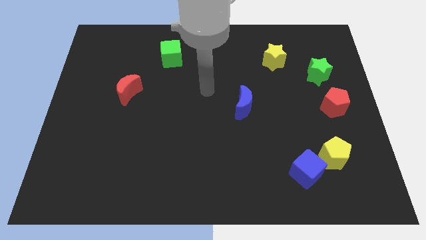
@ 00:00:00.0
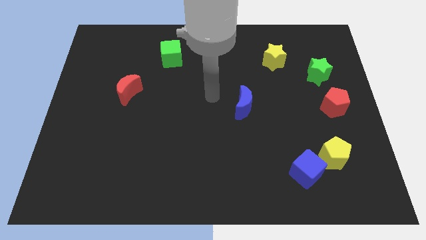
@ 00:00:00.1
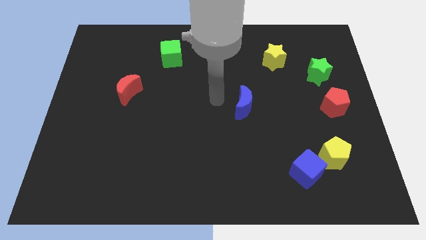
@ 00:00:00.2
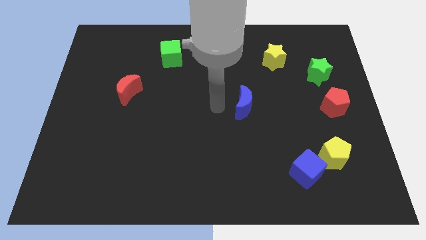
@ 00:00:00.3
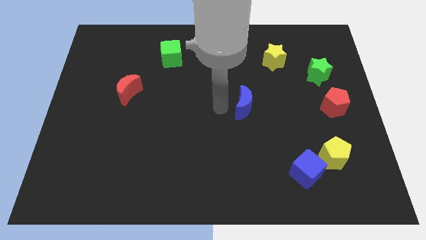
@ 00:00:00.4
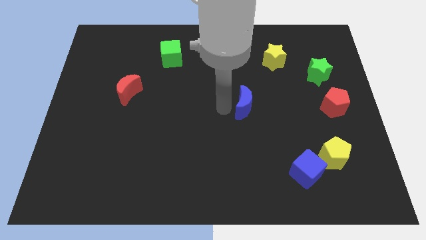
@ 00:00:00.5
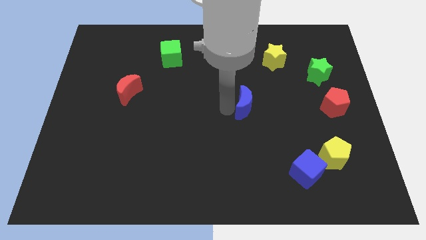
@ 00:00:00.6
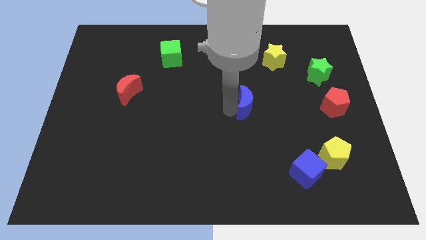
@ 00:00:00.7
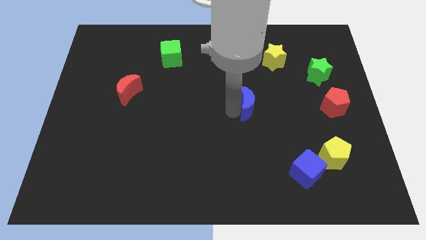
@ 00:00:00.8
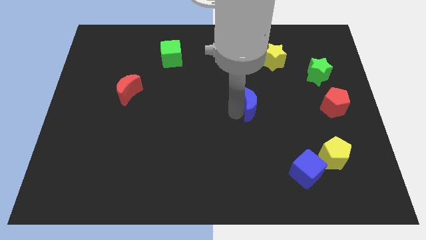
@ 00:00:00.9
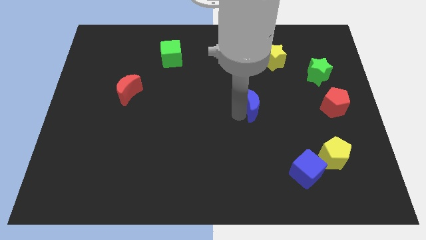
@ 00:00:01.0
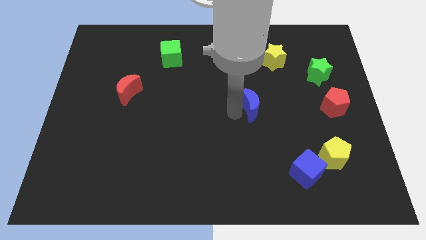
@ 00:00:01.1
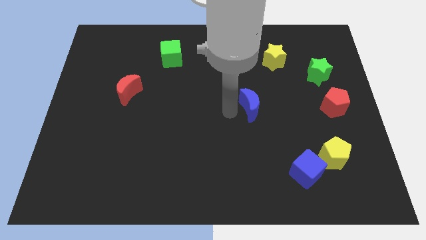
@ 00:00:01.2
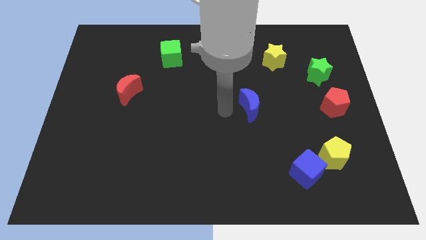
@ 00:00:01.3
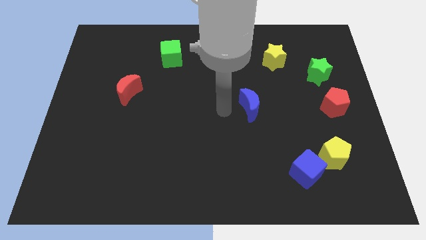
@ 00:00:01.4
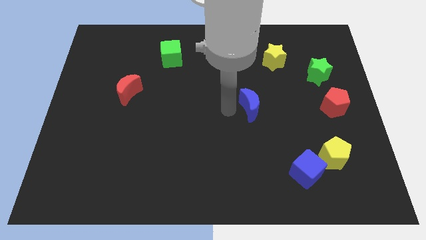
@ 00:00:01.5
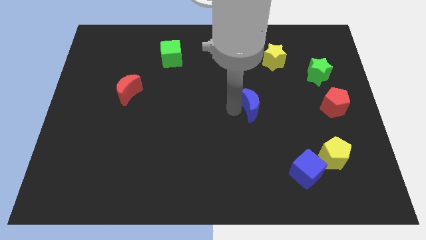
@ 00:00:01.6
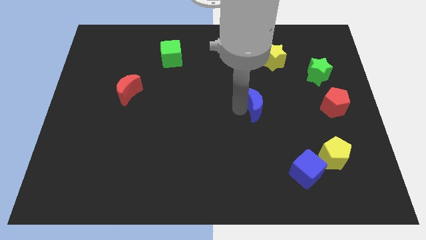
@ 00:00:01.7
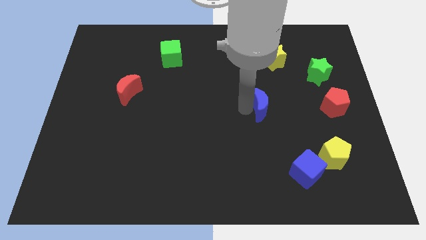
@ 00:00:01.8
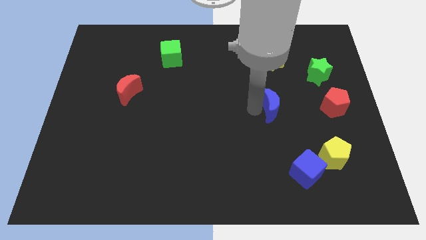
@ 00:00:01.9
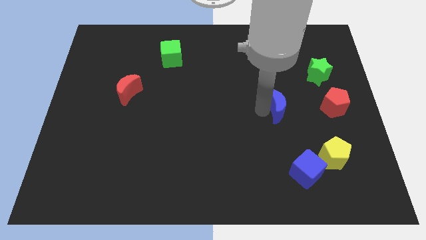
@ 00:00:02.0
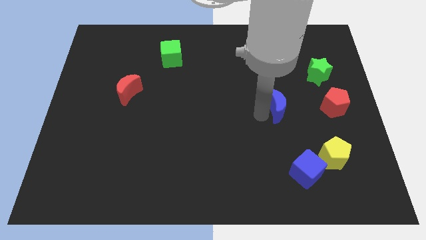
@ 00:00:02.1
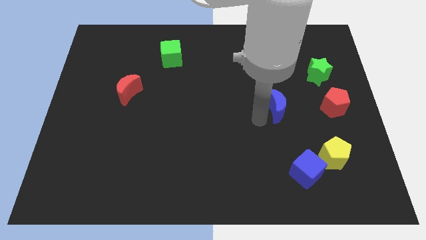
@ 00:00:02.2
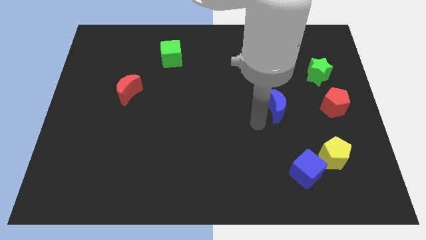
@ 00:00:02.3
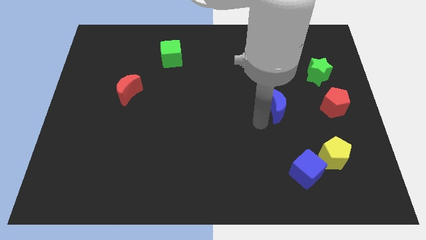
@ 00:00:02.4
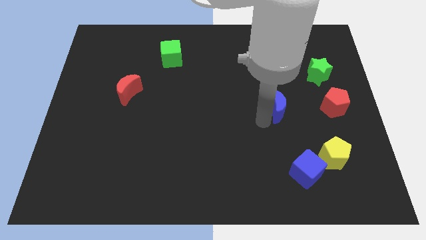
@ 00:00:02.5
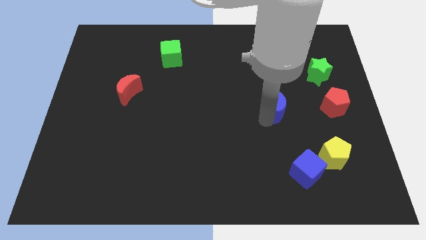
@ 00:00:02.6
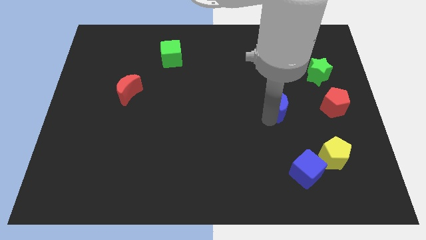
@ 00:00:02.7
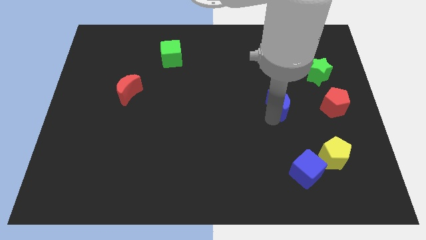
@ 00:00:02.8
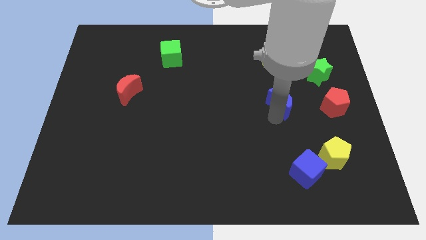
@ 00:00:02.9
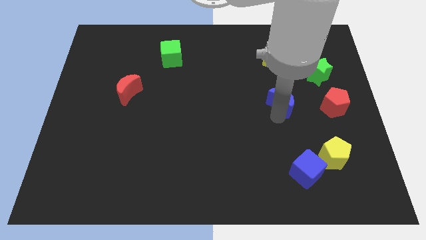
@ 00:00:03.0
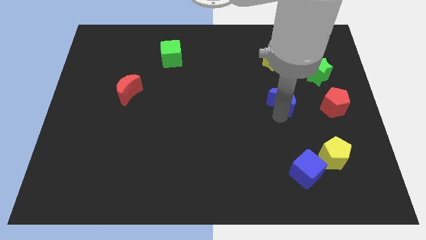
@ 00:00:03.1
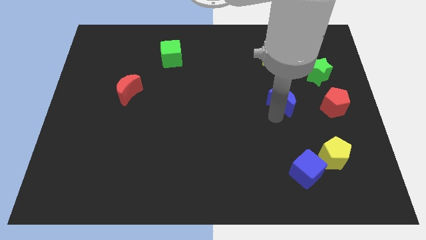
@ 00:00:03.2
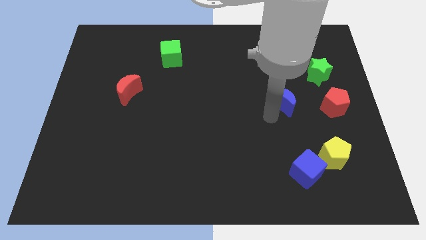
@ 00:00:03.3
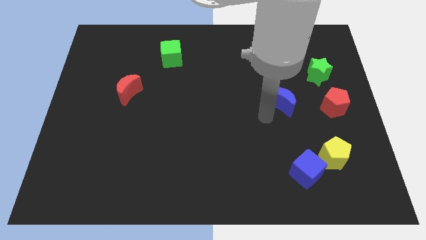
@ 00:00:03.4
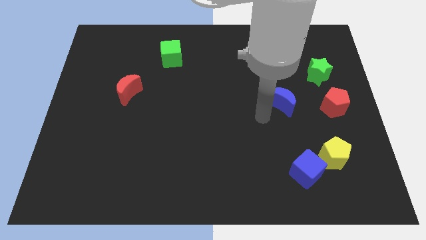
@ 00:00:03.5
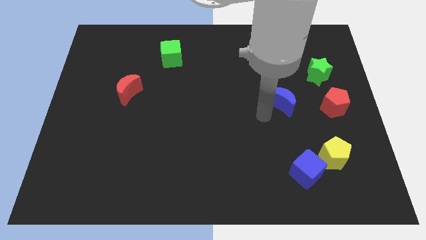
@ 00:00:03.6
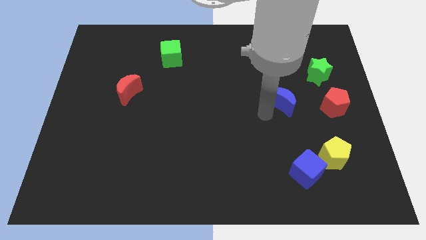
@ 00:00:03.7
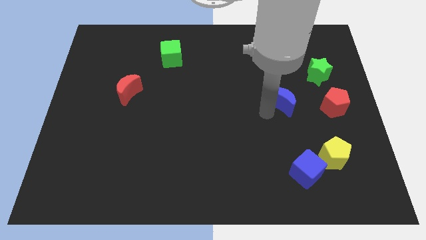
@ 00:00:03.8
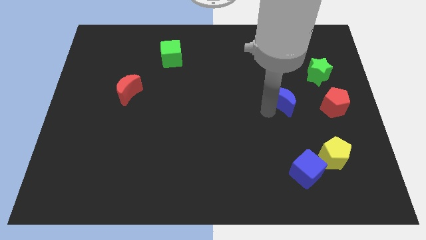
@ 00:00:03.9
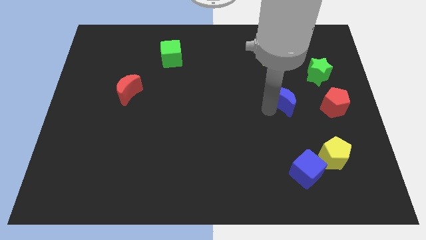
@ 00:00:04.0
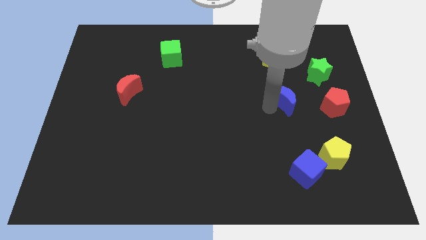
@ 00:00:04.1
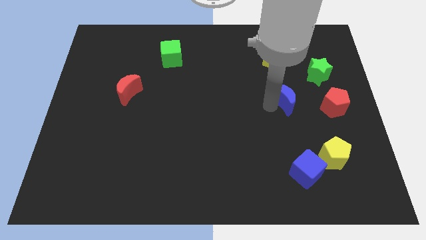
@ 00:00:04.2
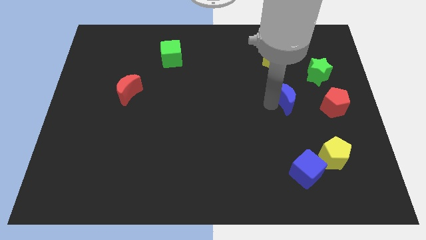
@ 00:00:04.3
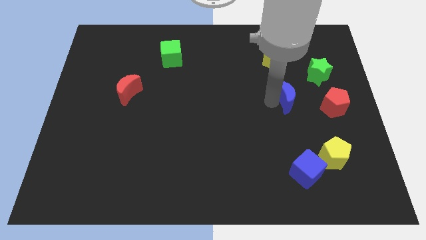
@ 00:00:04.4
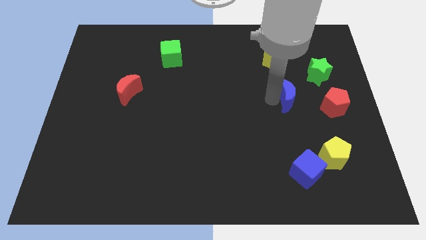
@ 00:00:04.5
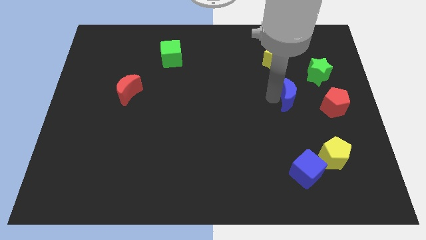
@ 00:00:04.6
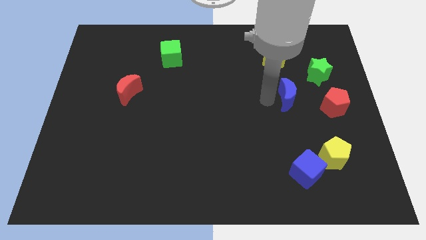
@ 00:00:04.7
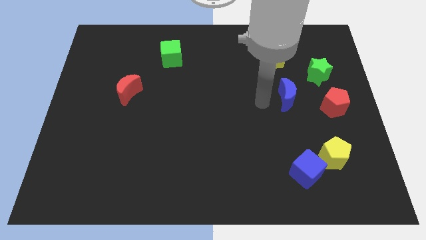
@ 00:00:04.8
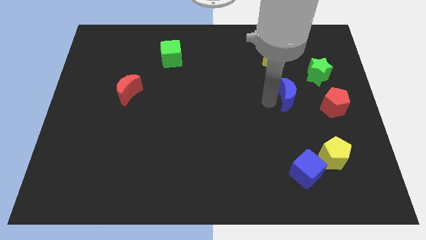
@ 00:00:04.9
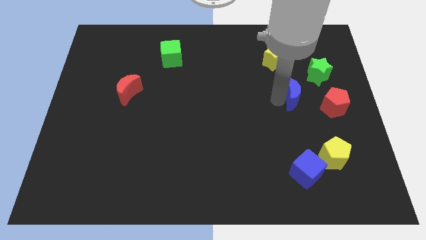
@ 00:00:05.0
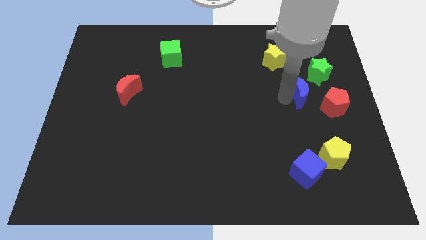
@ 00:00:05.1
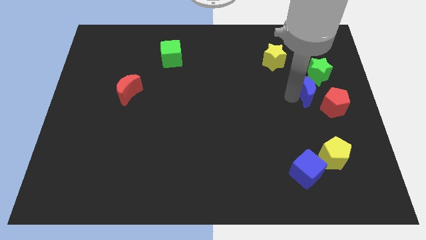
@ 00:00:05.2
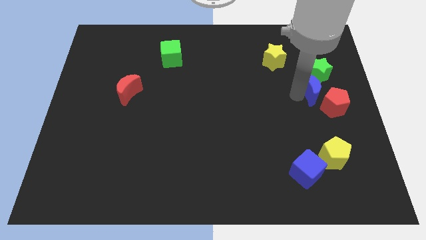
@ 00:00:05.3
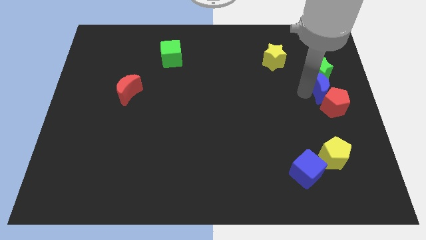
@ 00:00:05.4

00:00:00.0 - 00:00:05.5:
slide the blue moon to the center right
